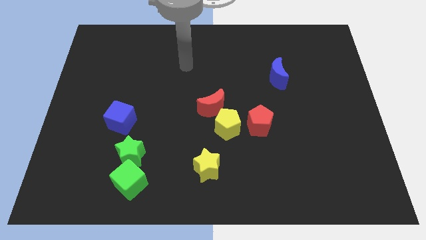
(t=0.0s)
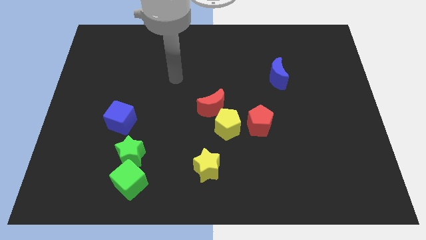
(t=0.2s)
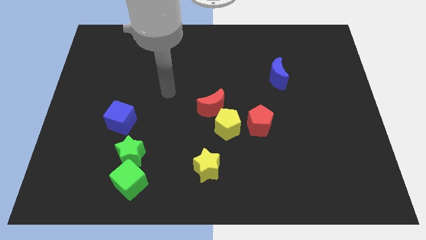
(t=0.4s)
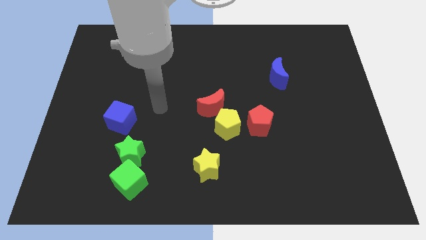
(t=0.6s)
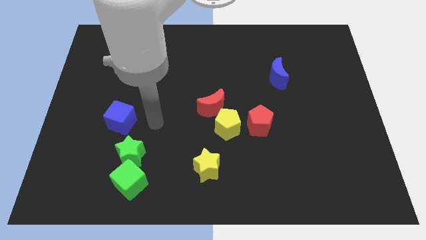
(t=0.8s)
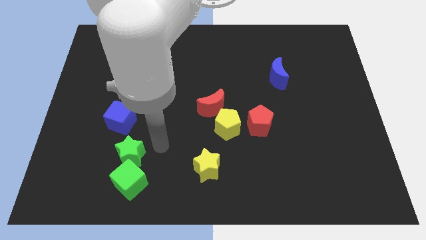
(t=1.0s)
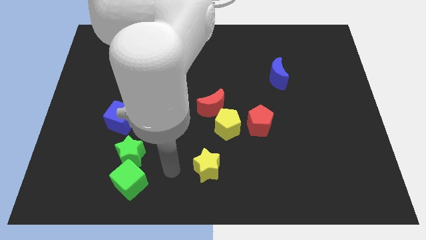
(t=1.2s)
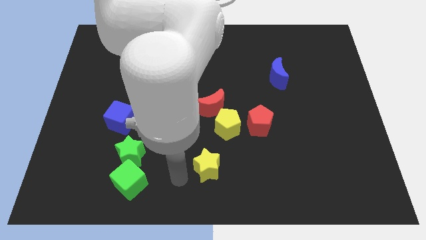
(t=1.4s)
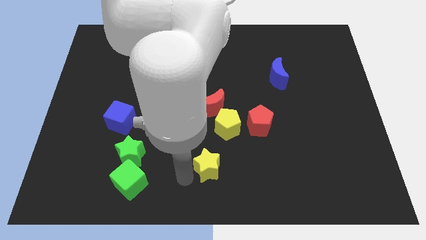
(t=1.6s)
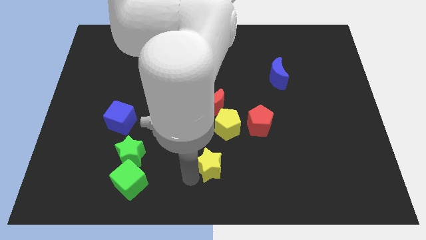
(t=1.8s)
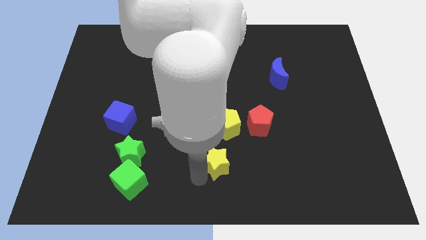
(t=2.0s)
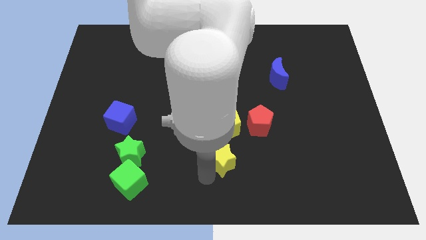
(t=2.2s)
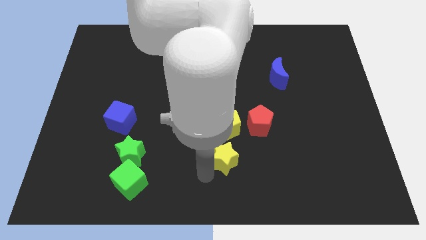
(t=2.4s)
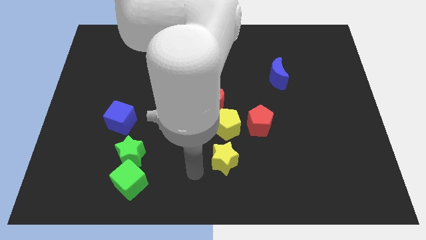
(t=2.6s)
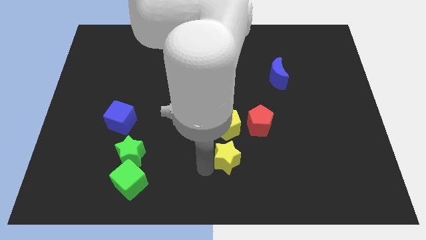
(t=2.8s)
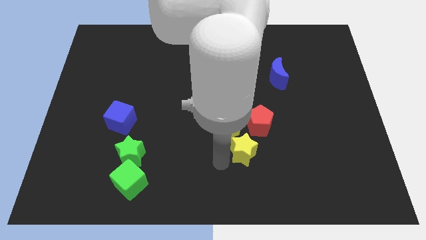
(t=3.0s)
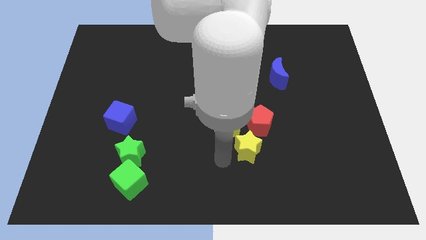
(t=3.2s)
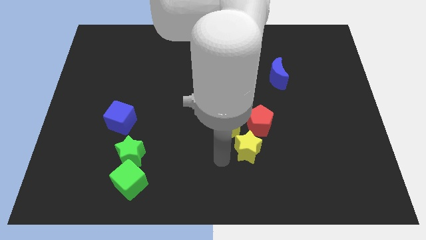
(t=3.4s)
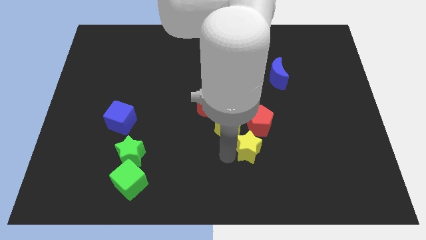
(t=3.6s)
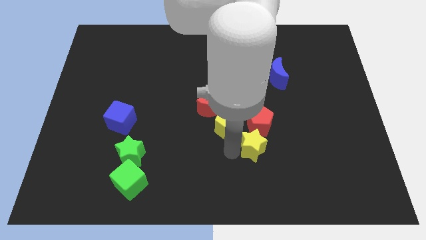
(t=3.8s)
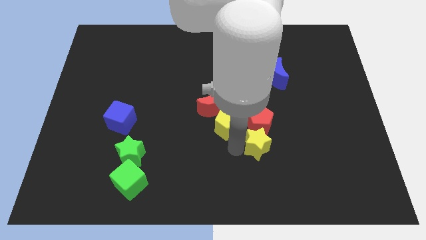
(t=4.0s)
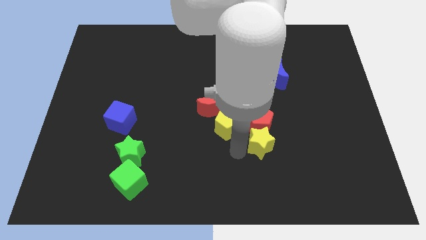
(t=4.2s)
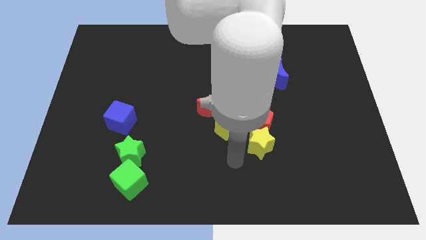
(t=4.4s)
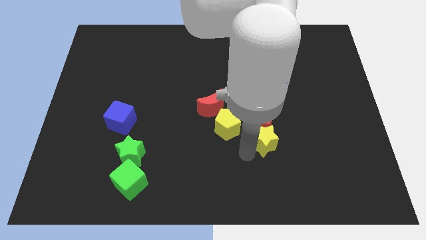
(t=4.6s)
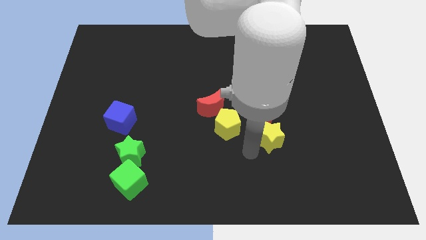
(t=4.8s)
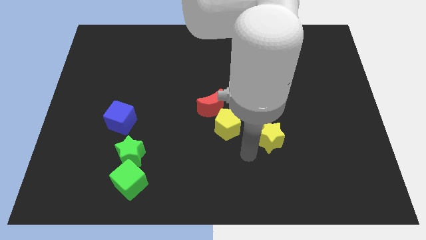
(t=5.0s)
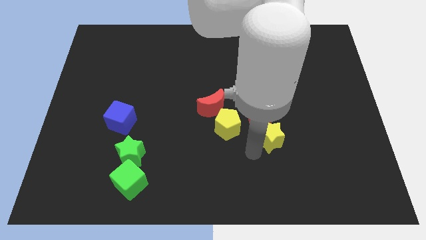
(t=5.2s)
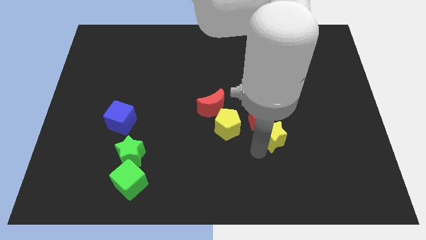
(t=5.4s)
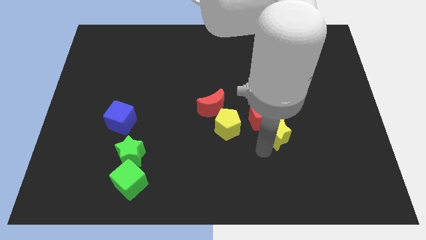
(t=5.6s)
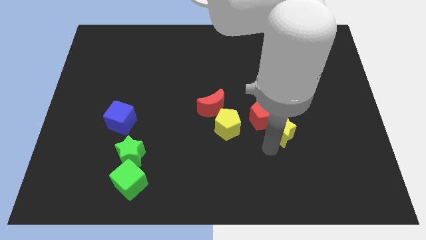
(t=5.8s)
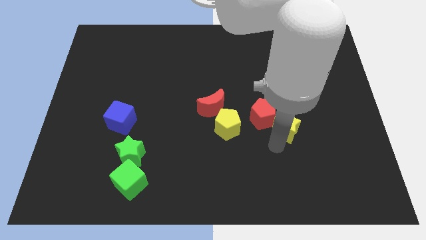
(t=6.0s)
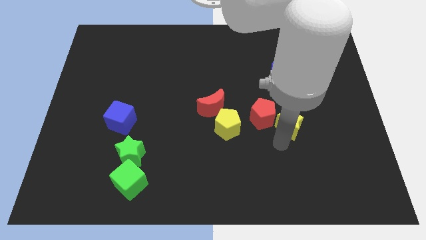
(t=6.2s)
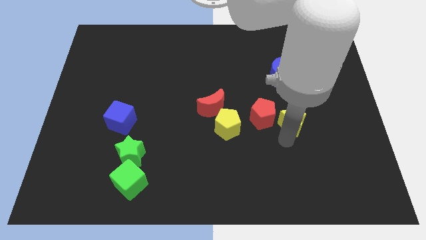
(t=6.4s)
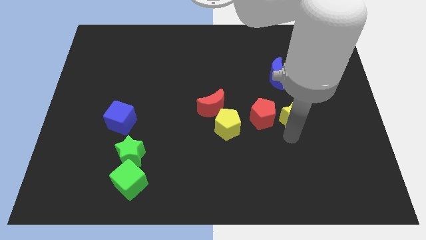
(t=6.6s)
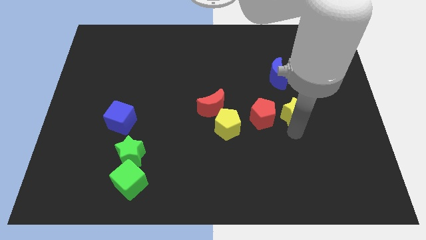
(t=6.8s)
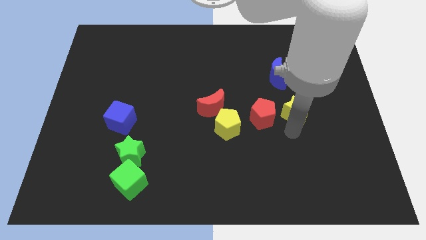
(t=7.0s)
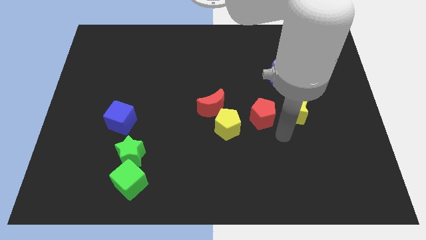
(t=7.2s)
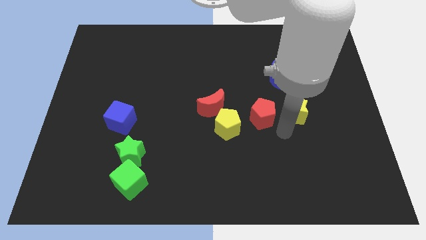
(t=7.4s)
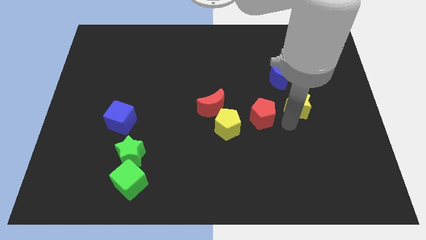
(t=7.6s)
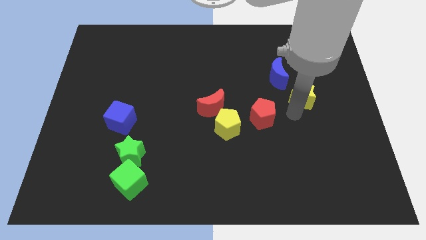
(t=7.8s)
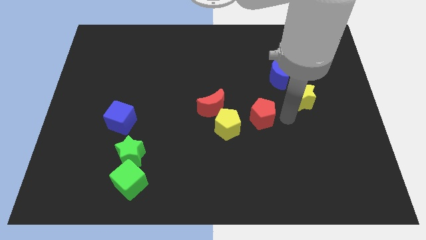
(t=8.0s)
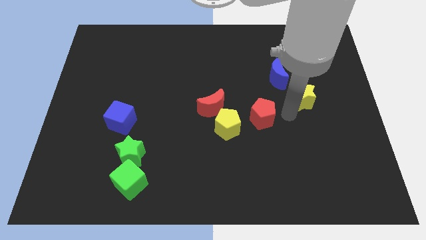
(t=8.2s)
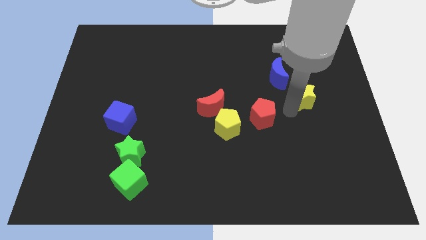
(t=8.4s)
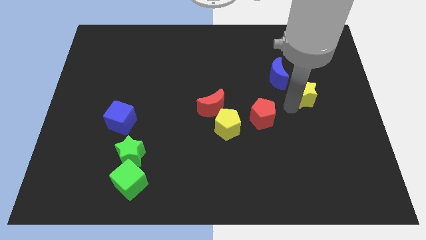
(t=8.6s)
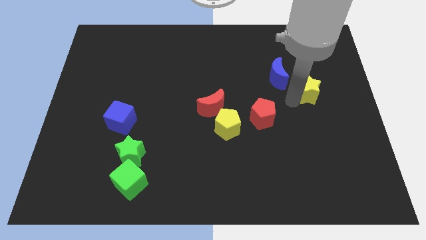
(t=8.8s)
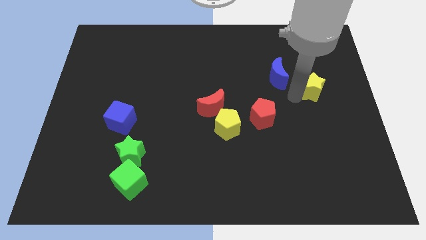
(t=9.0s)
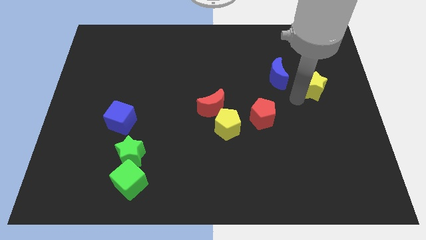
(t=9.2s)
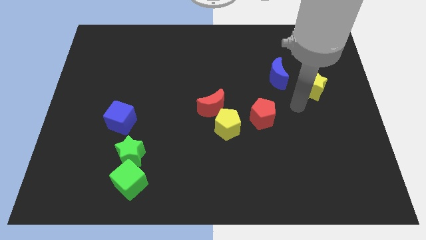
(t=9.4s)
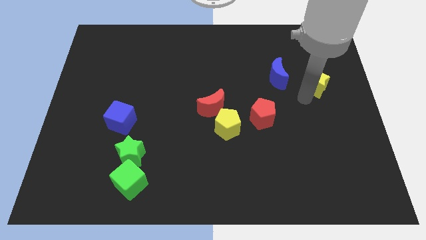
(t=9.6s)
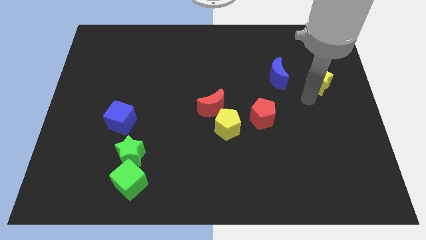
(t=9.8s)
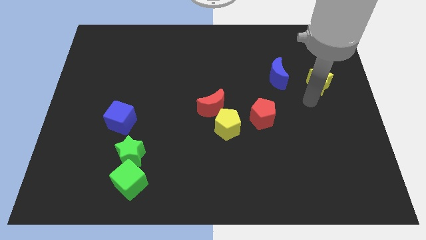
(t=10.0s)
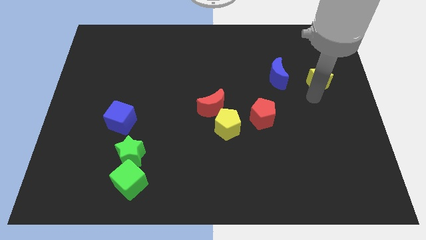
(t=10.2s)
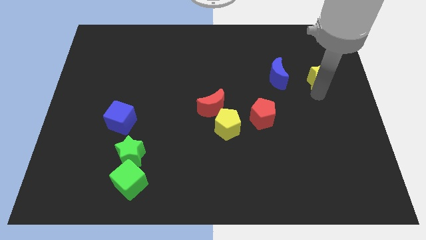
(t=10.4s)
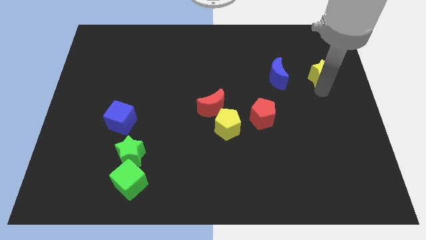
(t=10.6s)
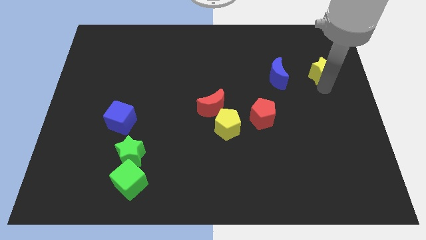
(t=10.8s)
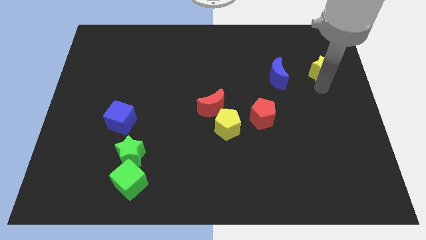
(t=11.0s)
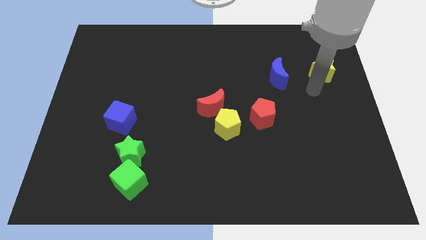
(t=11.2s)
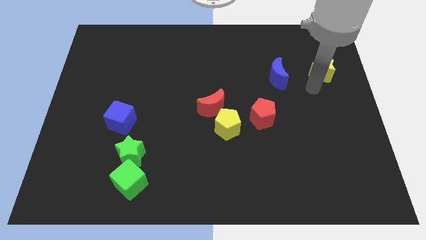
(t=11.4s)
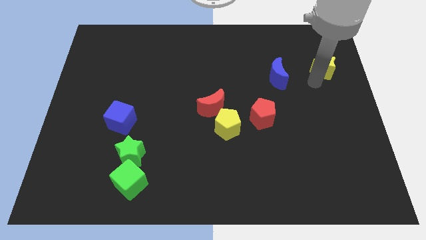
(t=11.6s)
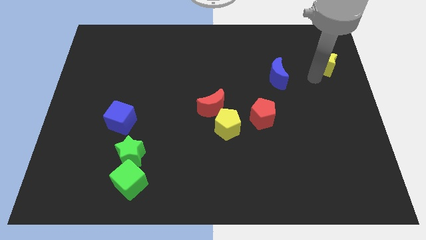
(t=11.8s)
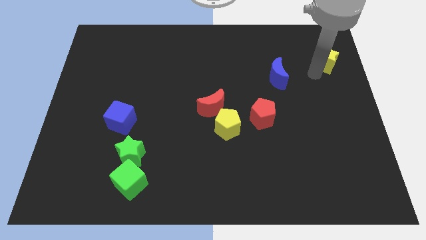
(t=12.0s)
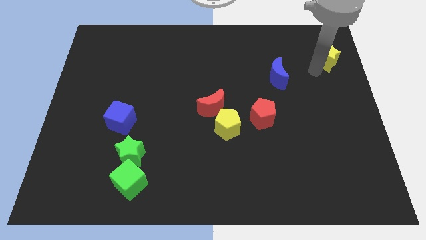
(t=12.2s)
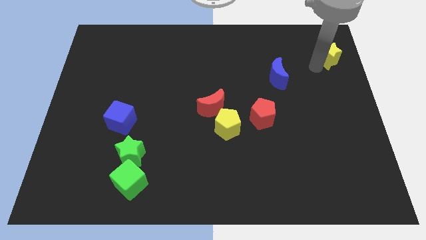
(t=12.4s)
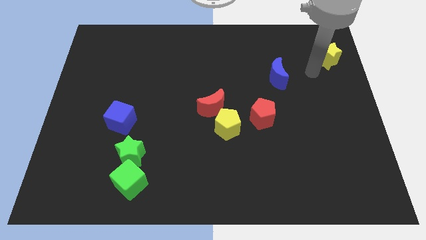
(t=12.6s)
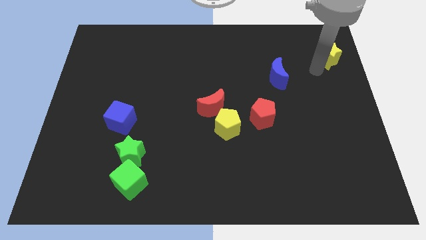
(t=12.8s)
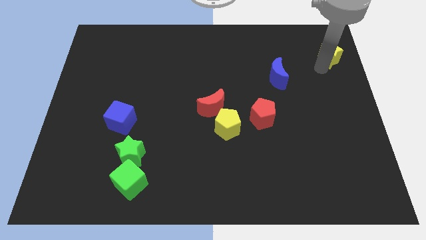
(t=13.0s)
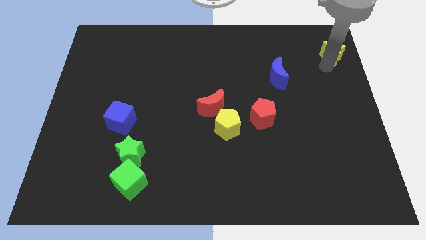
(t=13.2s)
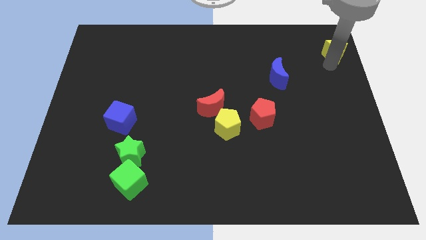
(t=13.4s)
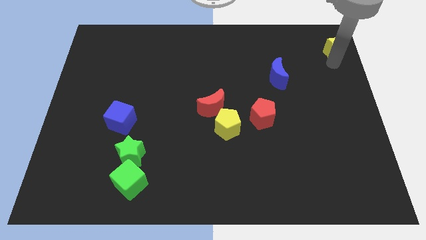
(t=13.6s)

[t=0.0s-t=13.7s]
move the yellow star to the top right of the board
